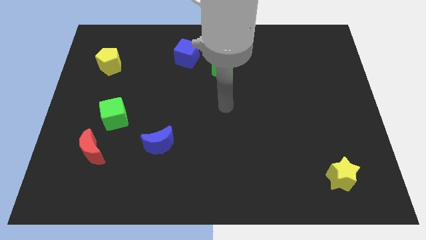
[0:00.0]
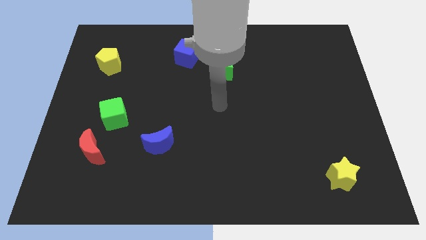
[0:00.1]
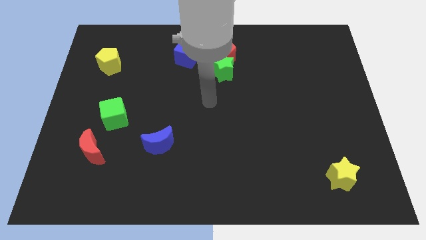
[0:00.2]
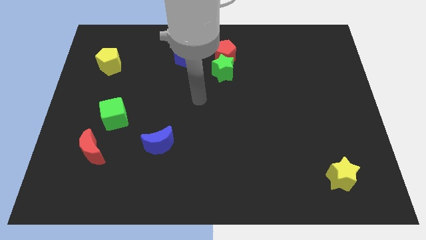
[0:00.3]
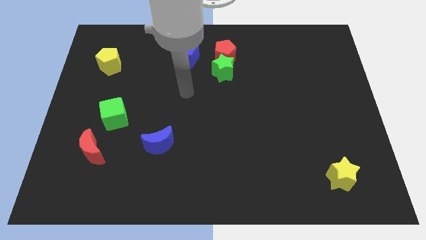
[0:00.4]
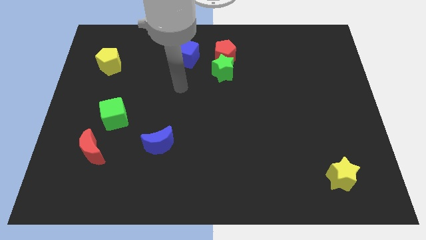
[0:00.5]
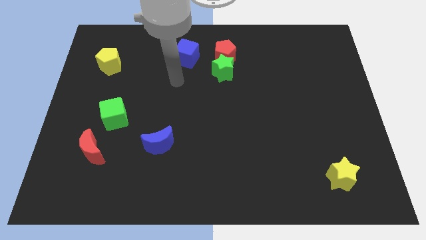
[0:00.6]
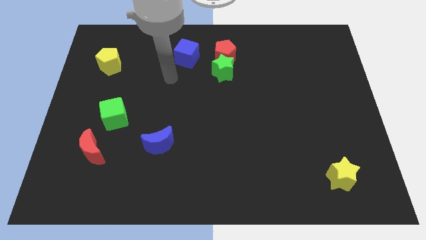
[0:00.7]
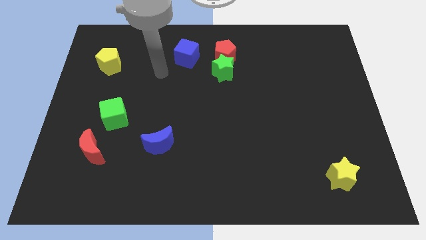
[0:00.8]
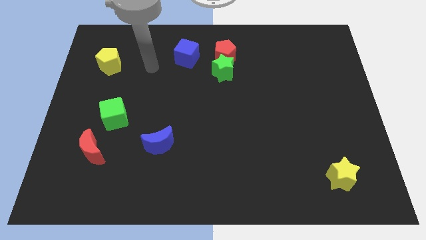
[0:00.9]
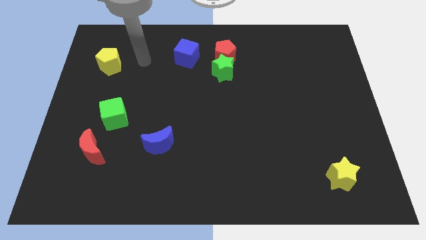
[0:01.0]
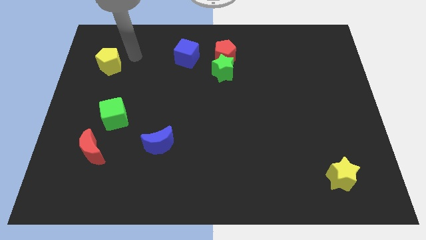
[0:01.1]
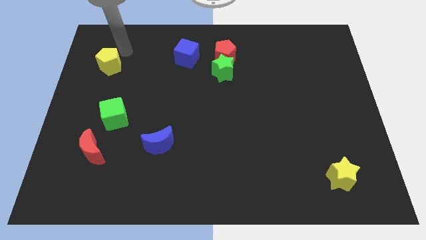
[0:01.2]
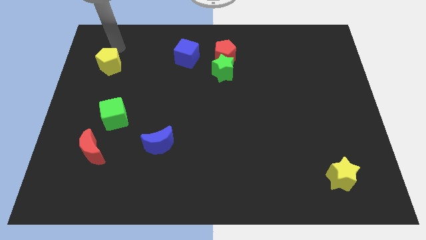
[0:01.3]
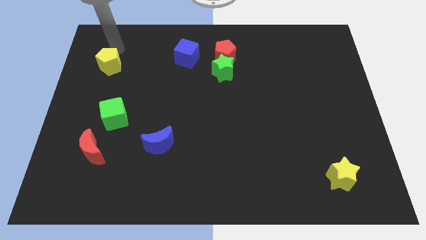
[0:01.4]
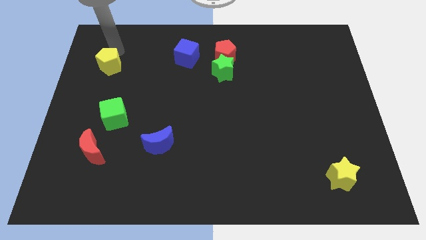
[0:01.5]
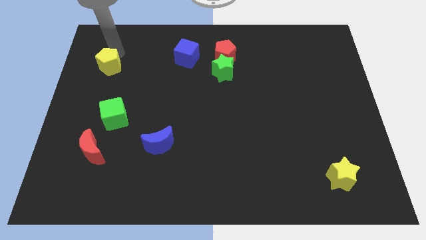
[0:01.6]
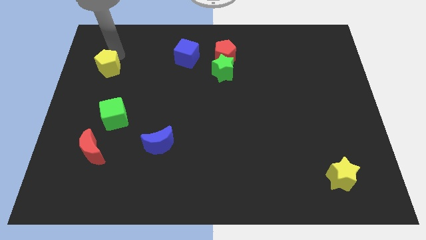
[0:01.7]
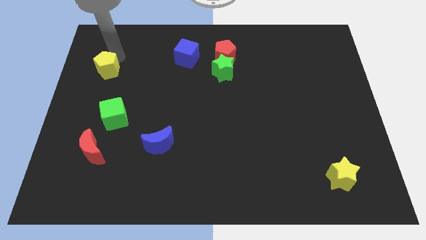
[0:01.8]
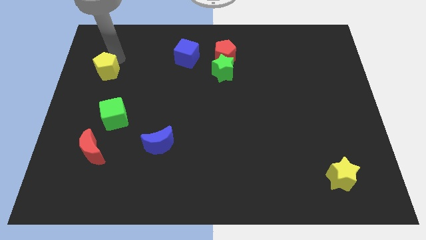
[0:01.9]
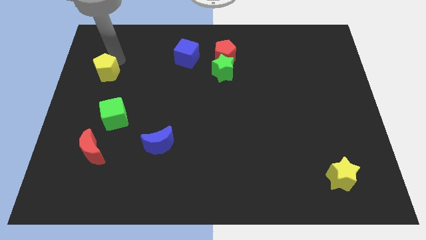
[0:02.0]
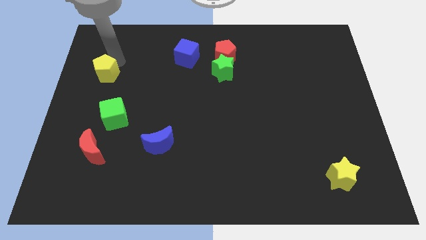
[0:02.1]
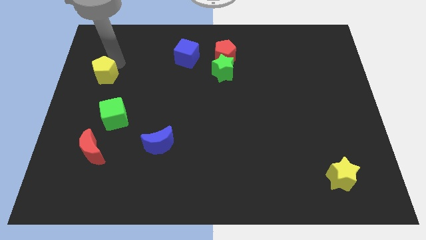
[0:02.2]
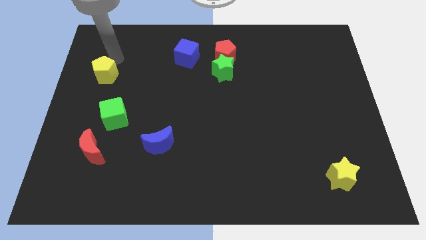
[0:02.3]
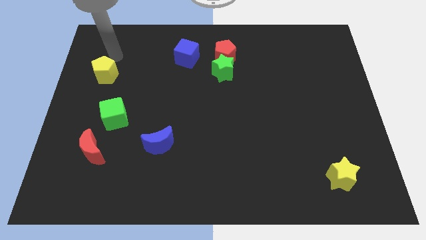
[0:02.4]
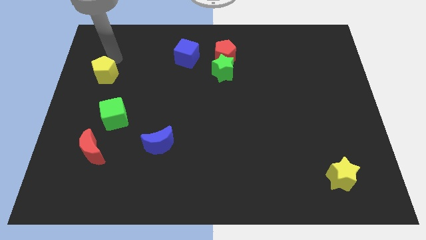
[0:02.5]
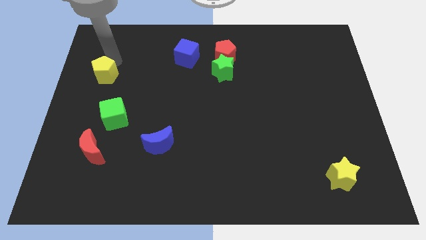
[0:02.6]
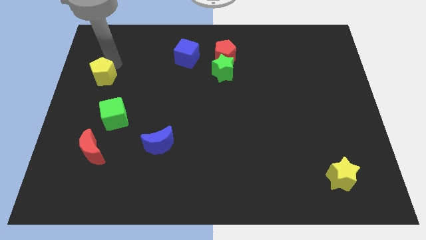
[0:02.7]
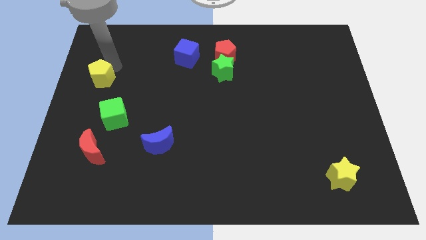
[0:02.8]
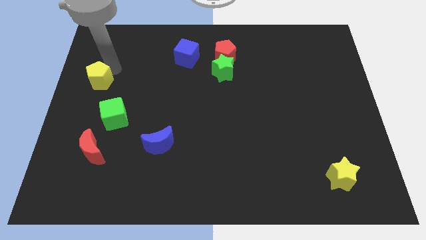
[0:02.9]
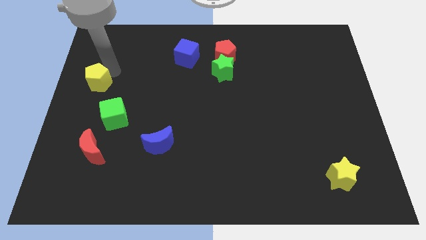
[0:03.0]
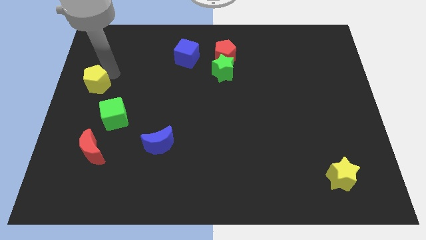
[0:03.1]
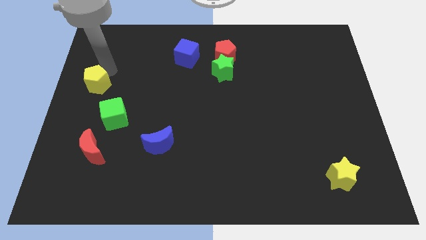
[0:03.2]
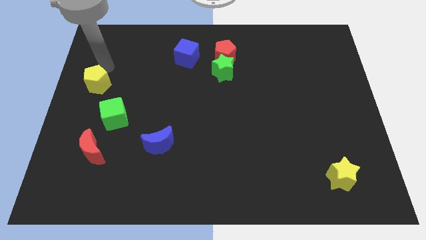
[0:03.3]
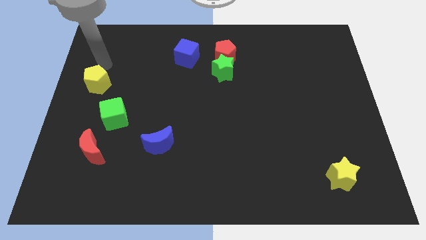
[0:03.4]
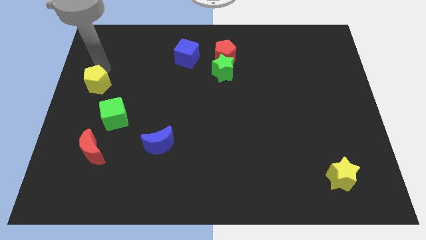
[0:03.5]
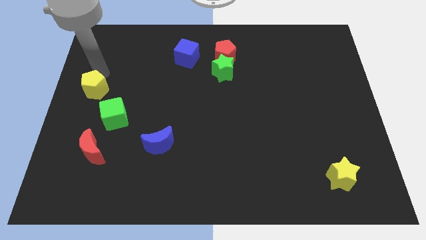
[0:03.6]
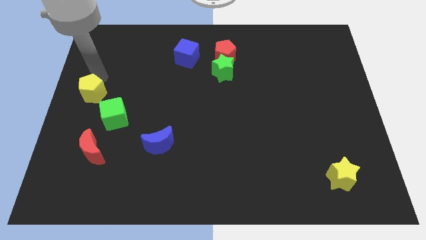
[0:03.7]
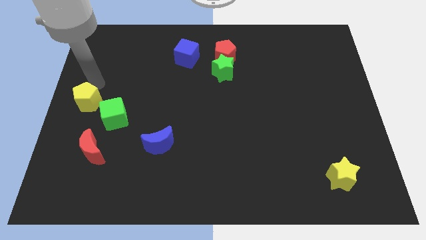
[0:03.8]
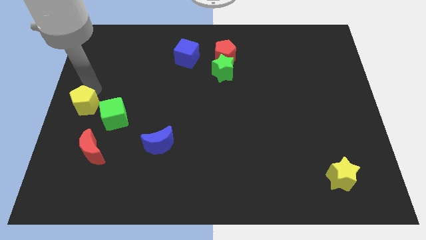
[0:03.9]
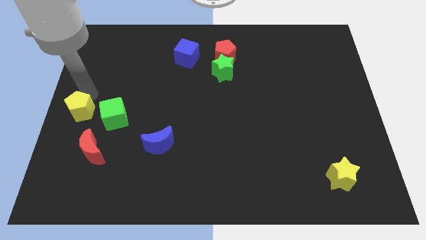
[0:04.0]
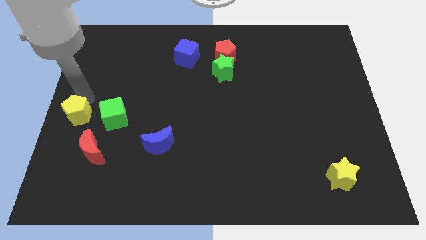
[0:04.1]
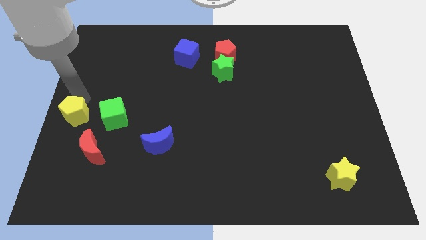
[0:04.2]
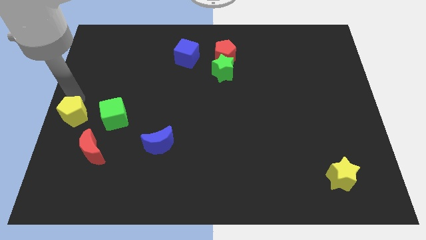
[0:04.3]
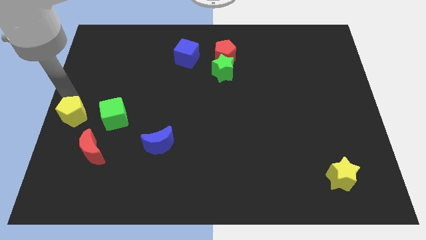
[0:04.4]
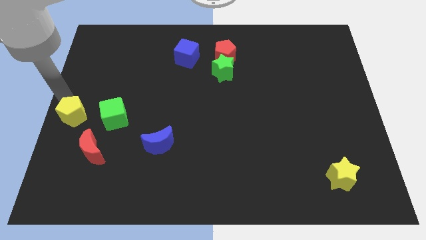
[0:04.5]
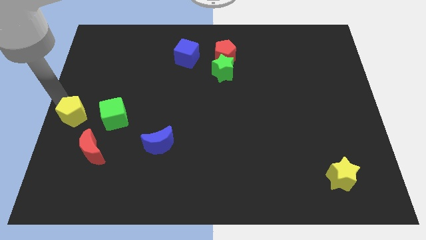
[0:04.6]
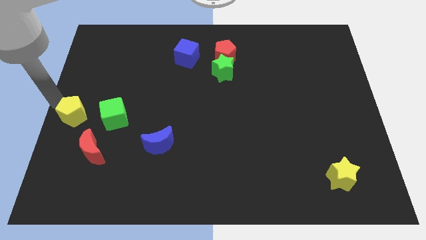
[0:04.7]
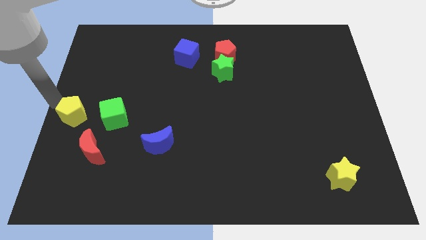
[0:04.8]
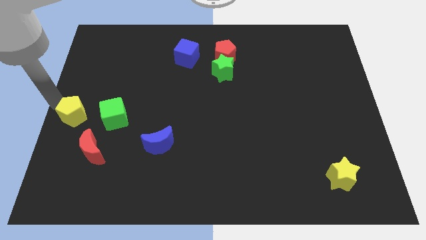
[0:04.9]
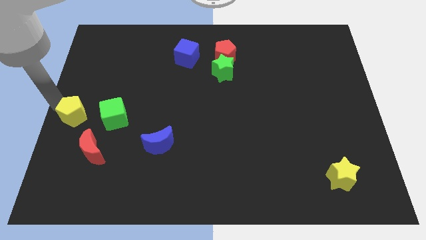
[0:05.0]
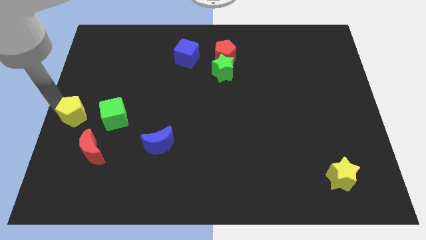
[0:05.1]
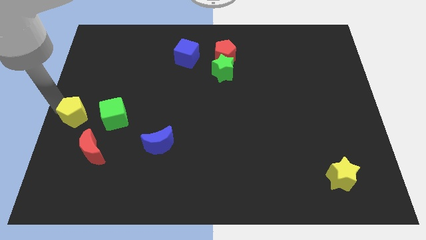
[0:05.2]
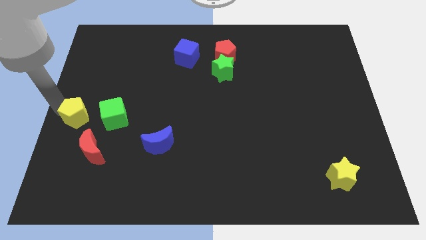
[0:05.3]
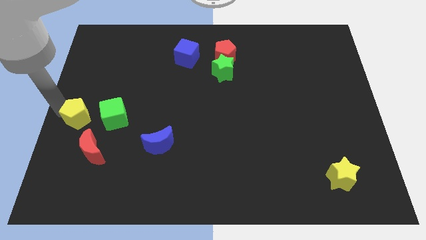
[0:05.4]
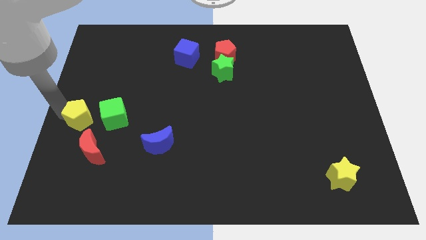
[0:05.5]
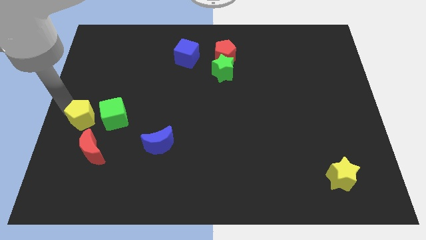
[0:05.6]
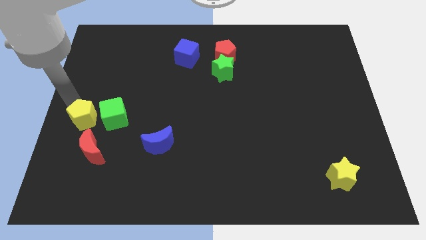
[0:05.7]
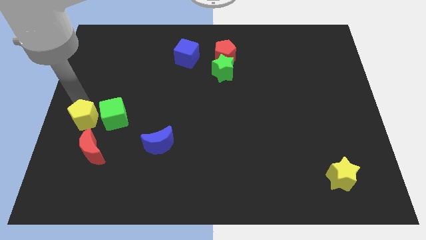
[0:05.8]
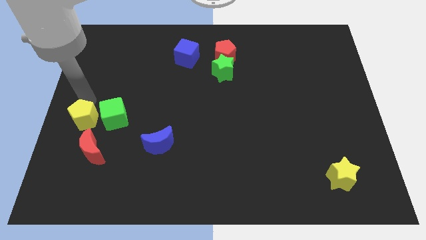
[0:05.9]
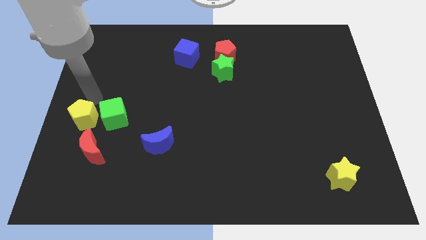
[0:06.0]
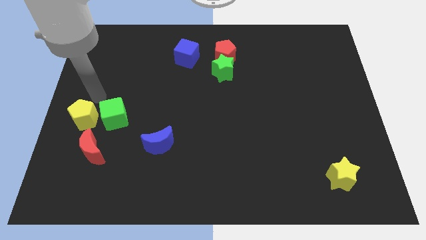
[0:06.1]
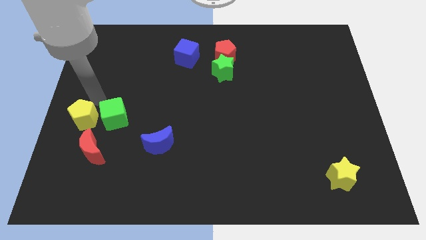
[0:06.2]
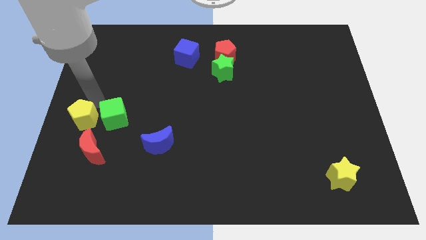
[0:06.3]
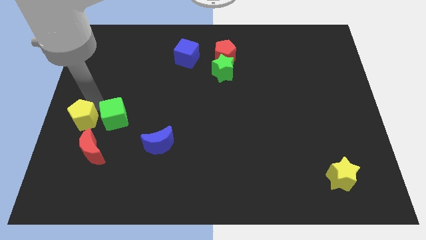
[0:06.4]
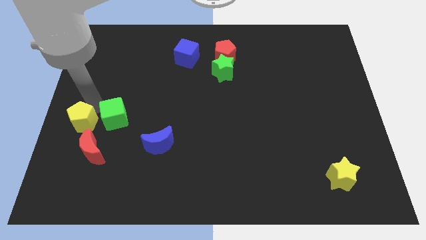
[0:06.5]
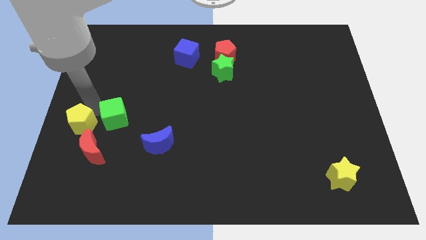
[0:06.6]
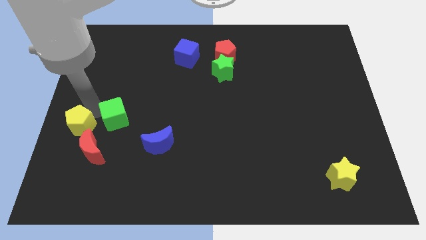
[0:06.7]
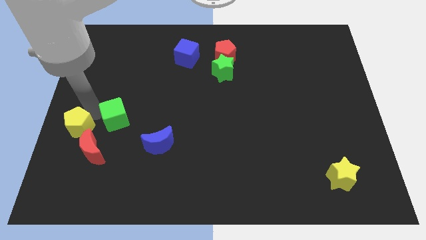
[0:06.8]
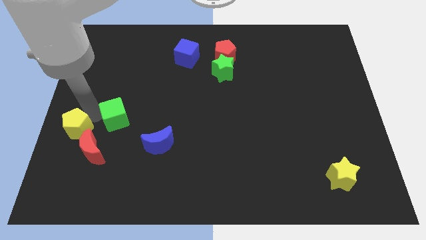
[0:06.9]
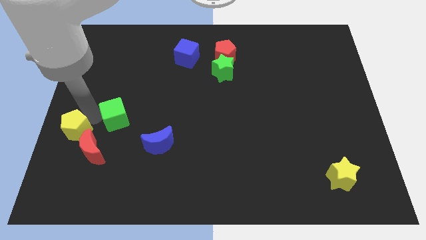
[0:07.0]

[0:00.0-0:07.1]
slide the yellow pentagon down

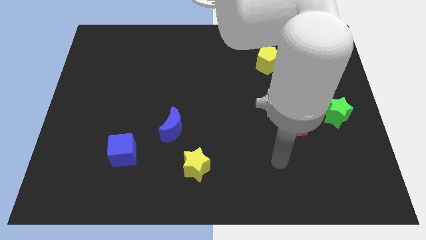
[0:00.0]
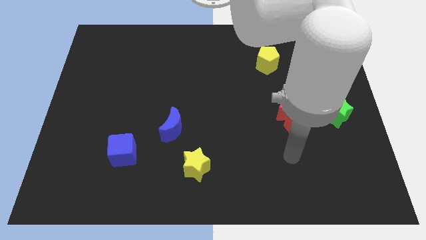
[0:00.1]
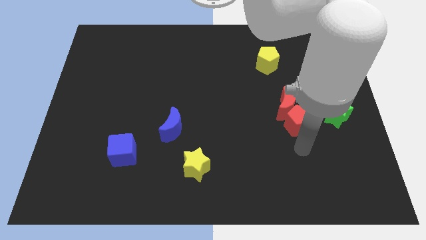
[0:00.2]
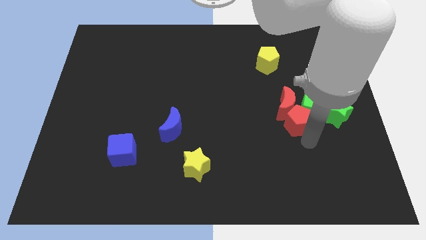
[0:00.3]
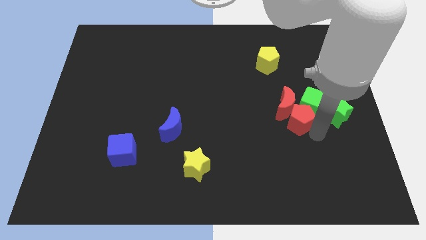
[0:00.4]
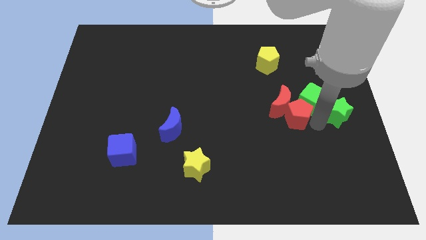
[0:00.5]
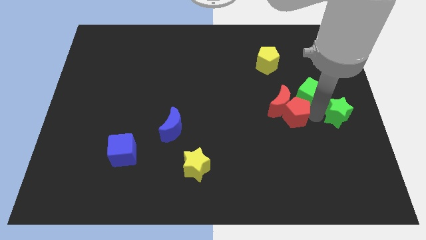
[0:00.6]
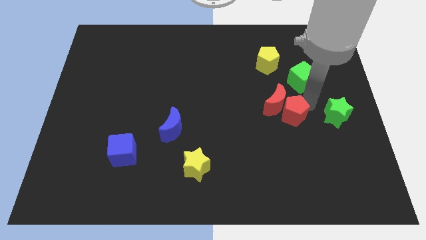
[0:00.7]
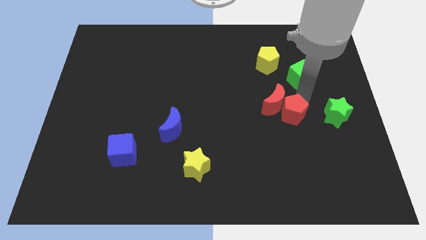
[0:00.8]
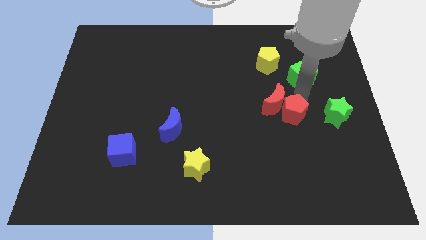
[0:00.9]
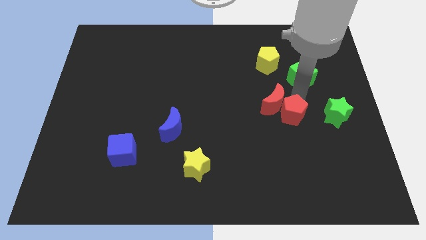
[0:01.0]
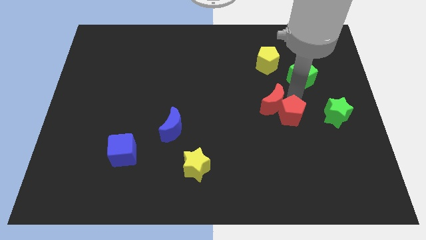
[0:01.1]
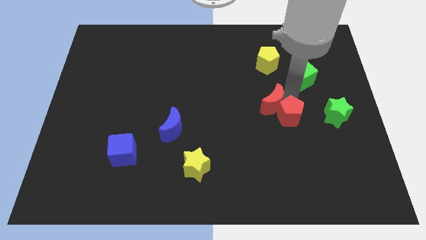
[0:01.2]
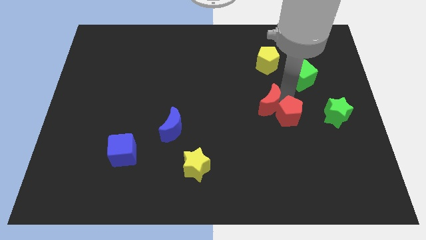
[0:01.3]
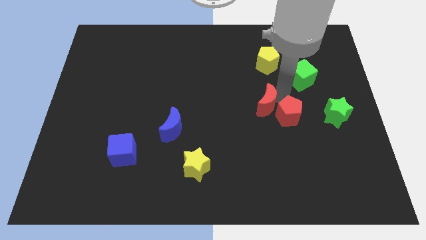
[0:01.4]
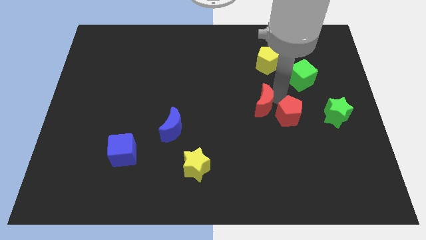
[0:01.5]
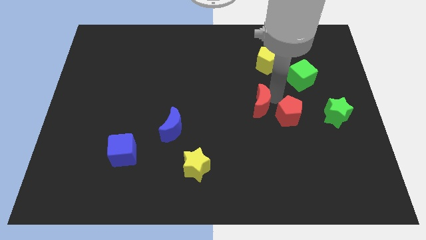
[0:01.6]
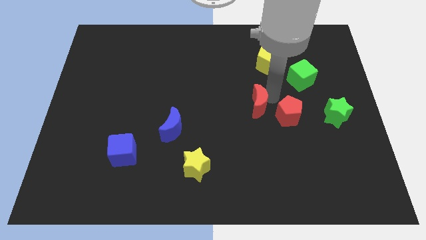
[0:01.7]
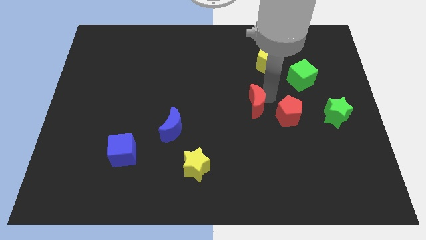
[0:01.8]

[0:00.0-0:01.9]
slightly move the red moon to the left
